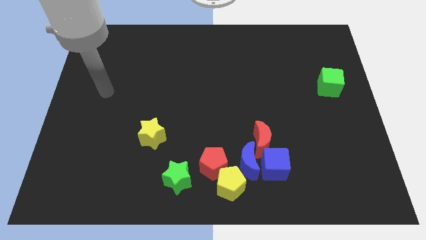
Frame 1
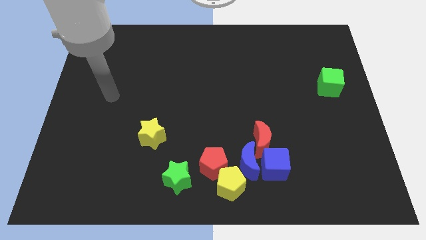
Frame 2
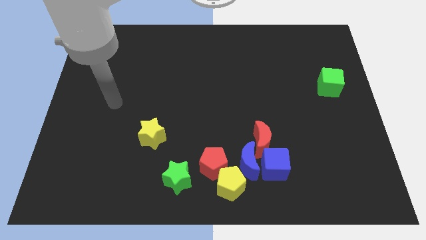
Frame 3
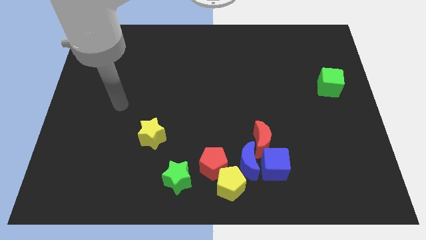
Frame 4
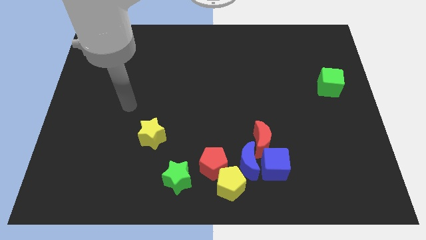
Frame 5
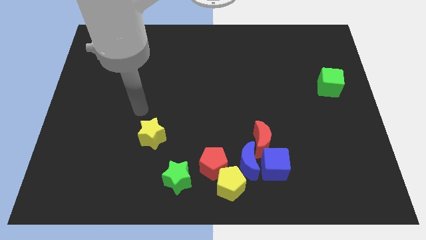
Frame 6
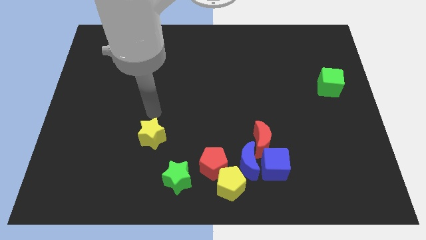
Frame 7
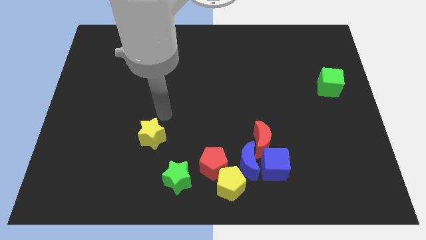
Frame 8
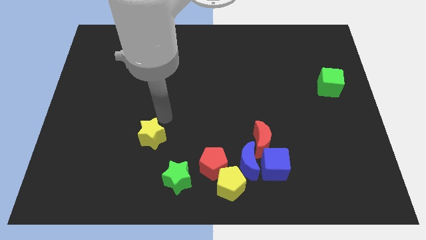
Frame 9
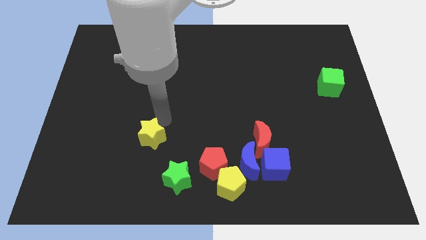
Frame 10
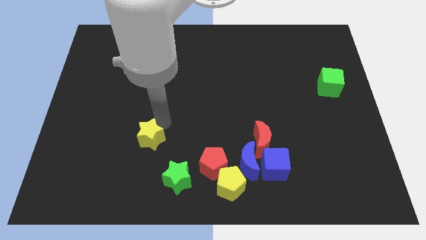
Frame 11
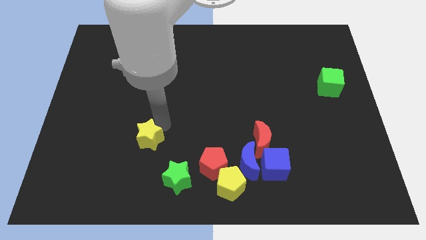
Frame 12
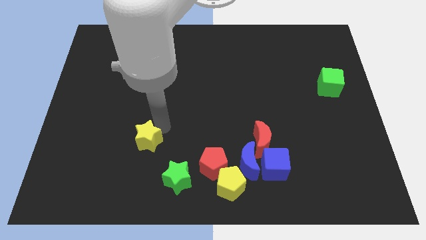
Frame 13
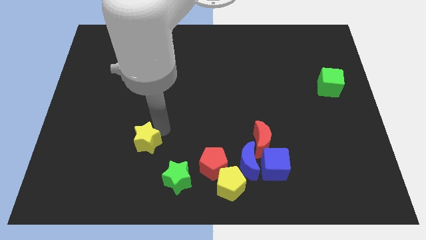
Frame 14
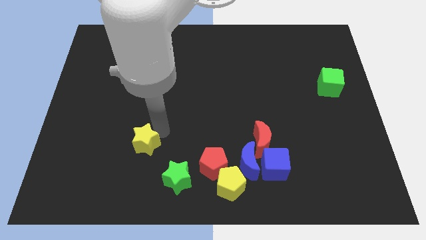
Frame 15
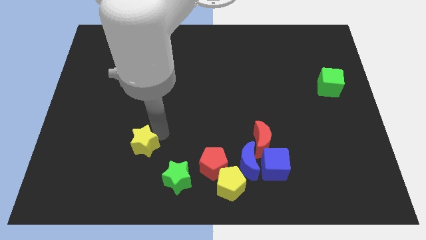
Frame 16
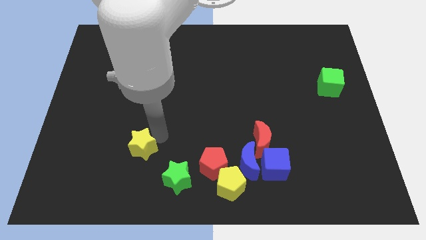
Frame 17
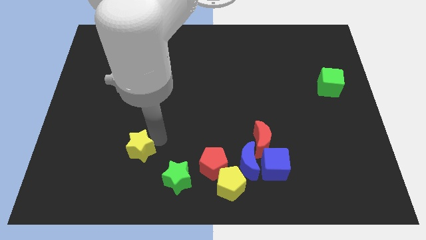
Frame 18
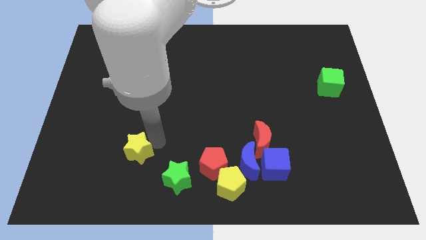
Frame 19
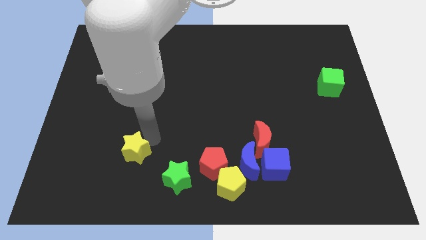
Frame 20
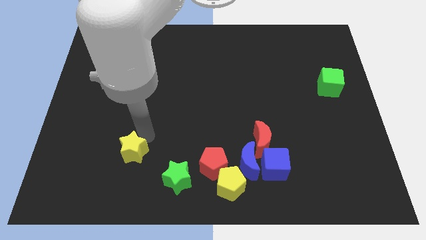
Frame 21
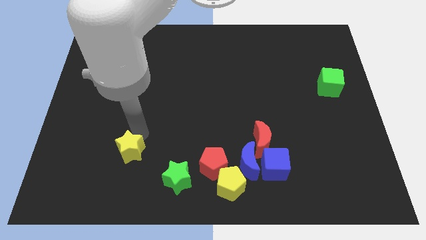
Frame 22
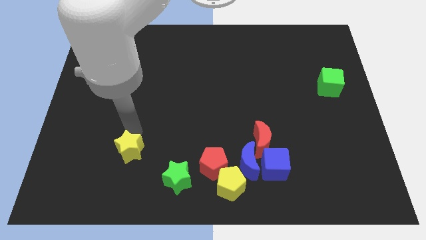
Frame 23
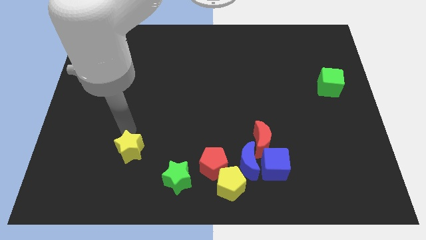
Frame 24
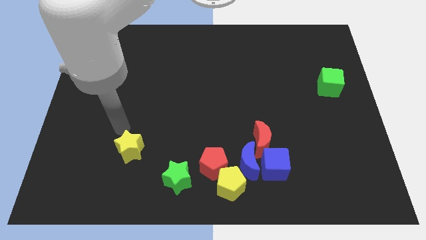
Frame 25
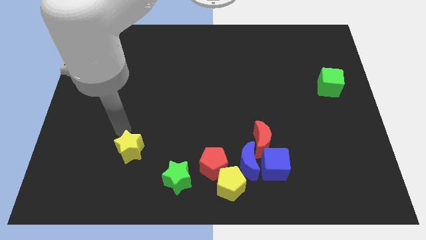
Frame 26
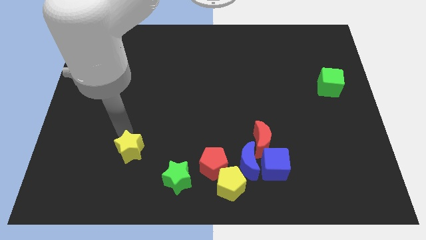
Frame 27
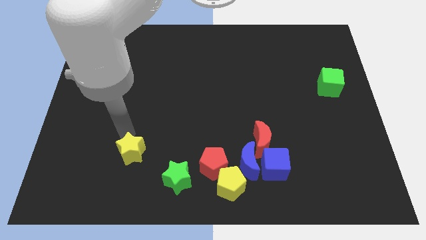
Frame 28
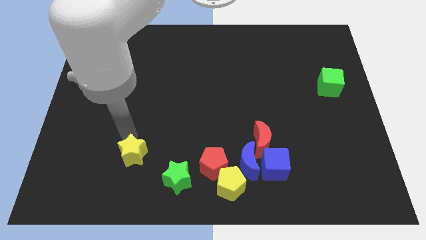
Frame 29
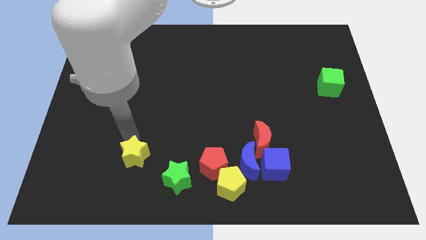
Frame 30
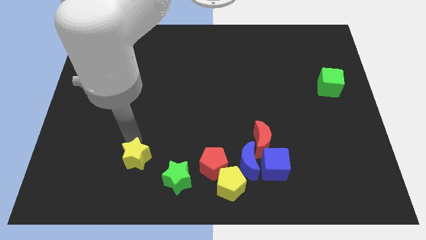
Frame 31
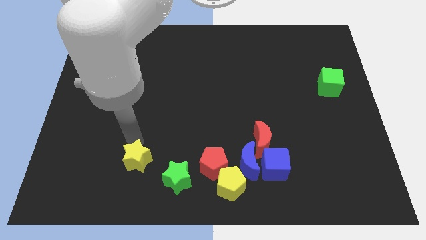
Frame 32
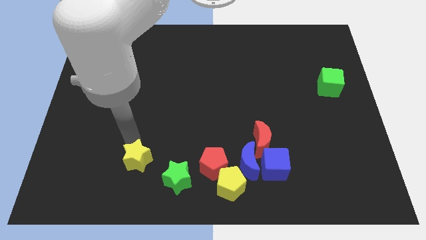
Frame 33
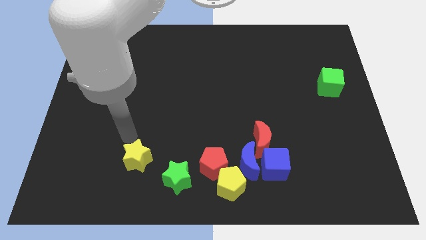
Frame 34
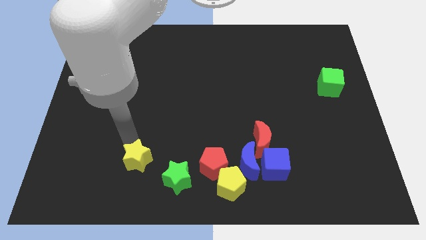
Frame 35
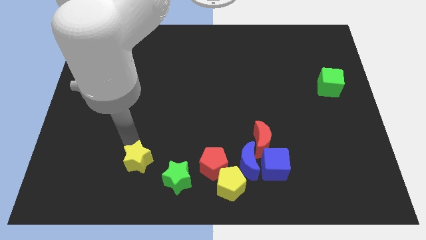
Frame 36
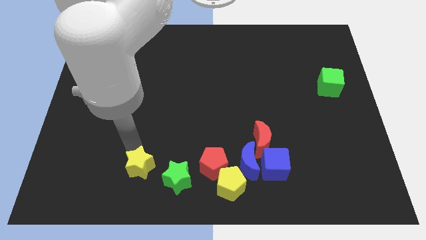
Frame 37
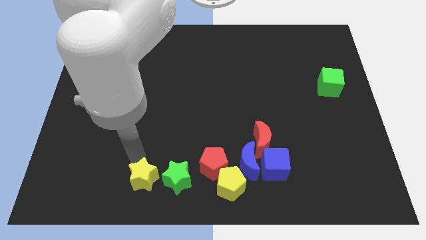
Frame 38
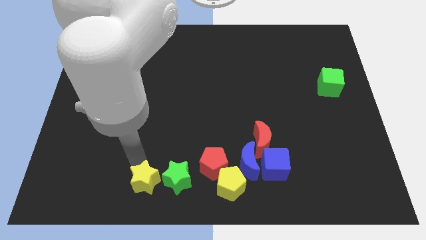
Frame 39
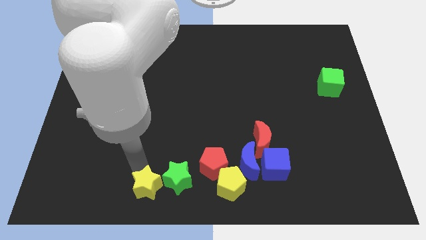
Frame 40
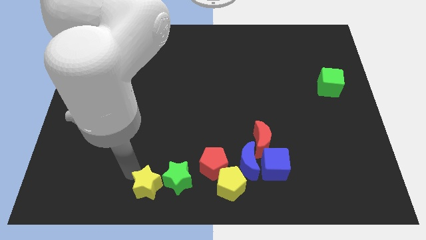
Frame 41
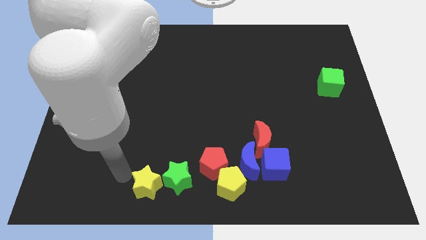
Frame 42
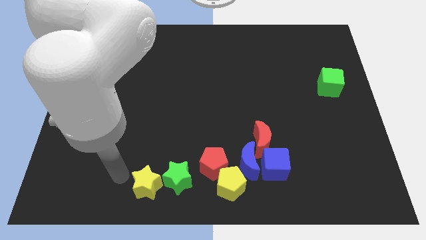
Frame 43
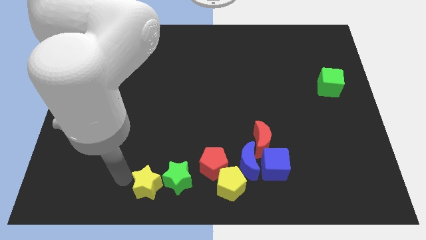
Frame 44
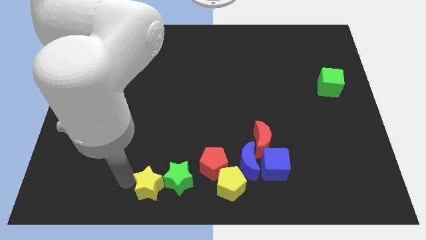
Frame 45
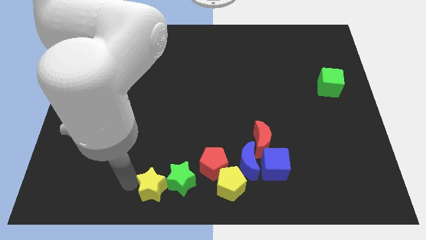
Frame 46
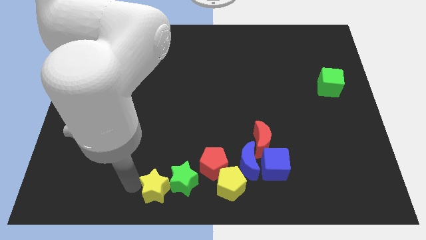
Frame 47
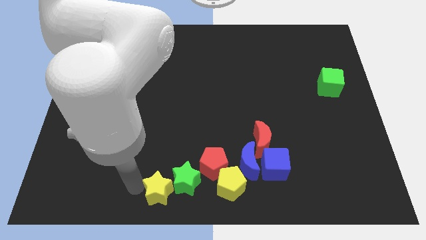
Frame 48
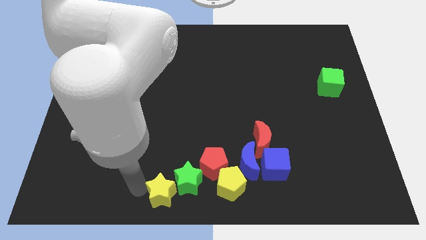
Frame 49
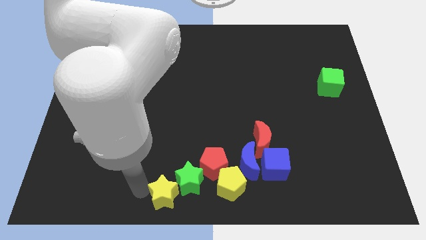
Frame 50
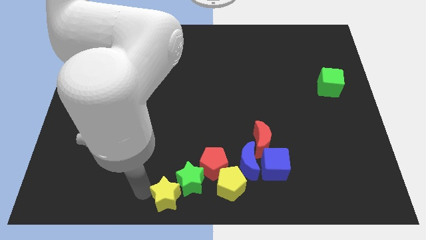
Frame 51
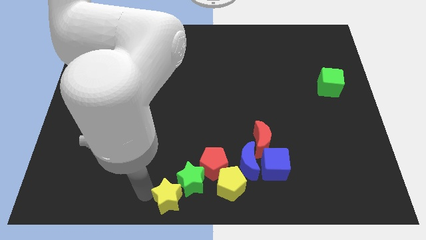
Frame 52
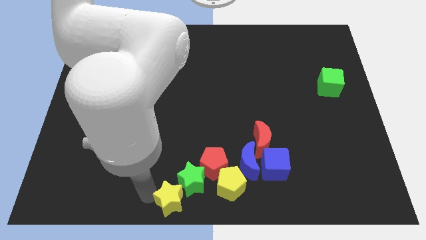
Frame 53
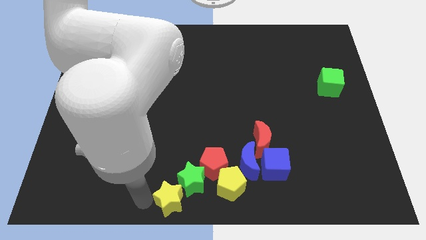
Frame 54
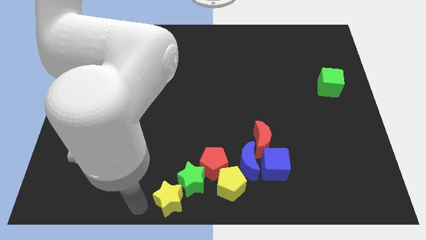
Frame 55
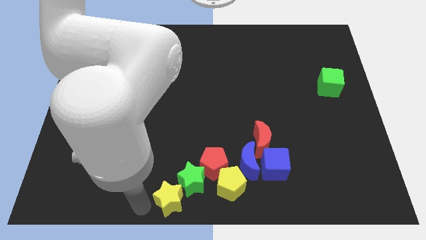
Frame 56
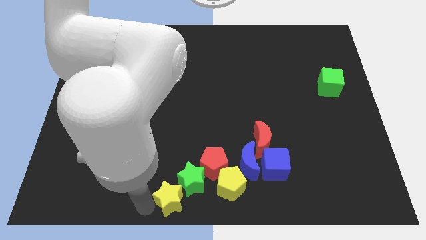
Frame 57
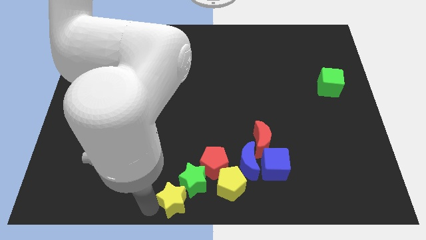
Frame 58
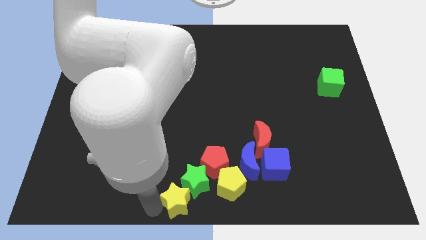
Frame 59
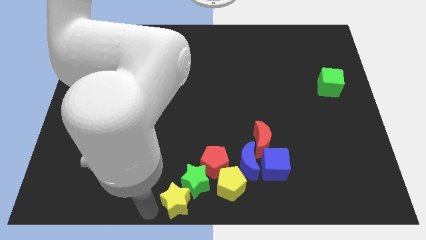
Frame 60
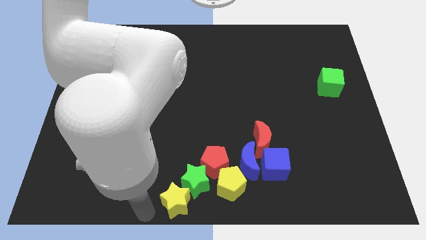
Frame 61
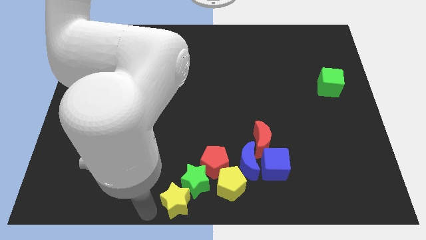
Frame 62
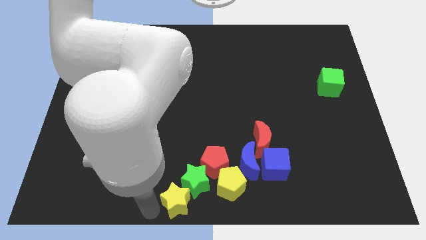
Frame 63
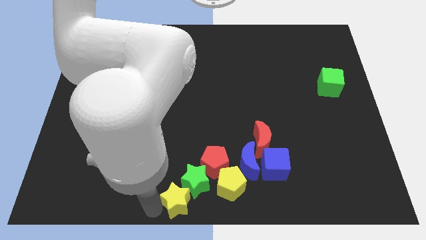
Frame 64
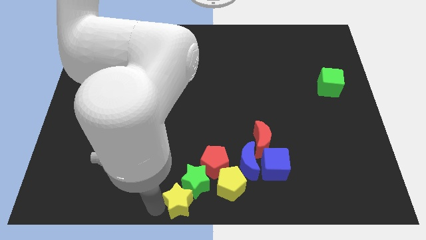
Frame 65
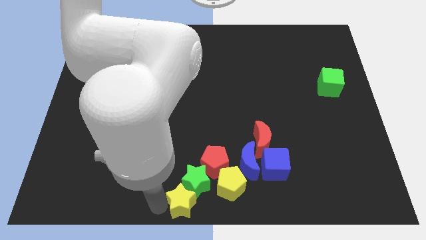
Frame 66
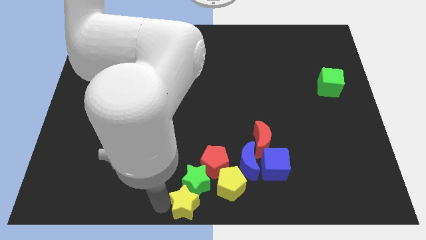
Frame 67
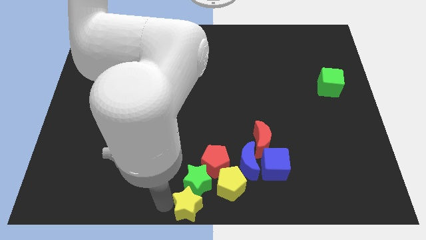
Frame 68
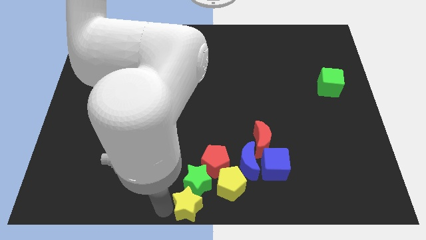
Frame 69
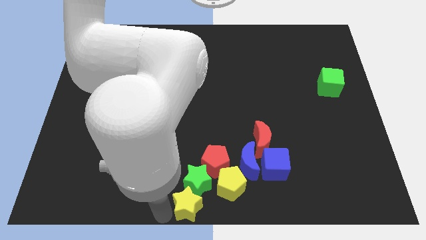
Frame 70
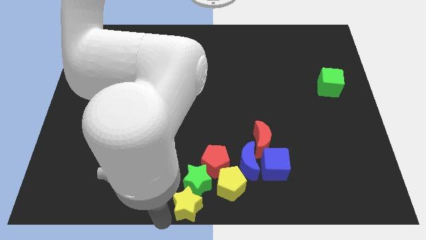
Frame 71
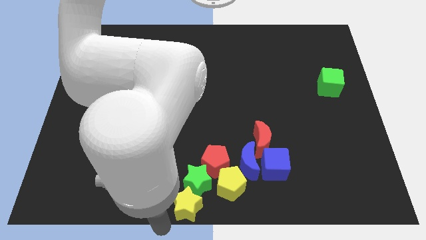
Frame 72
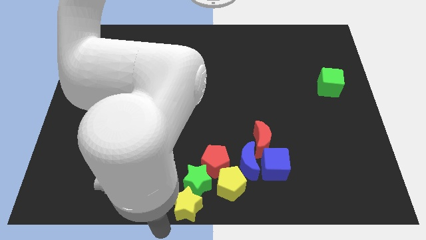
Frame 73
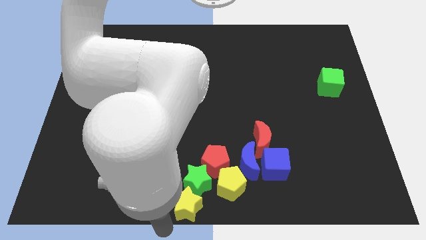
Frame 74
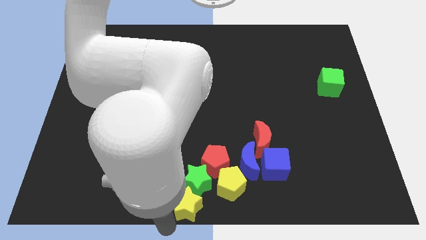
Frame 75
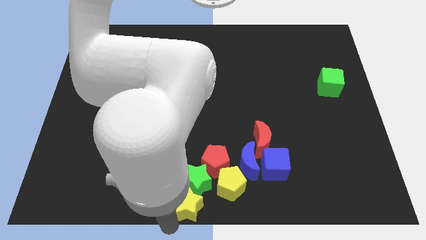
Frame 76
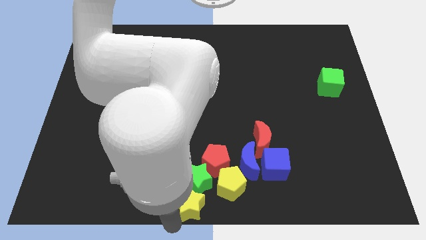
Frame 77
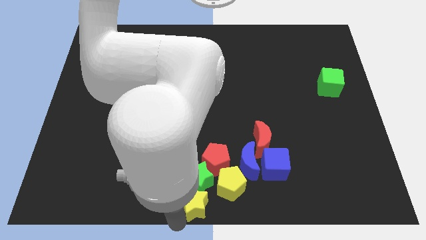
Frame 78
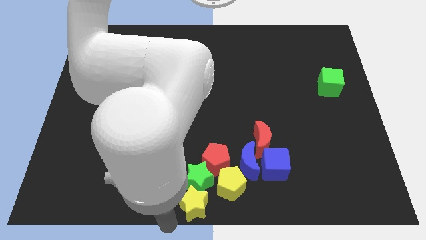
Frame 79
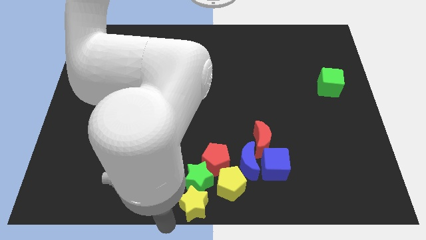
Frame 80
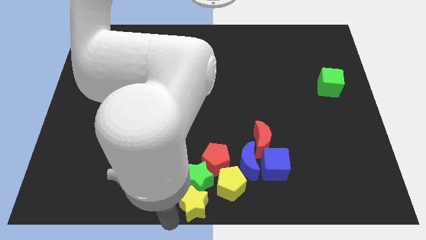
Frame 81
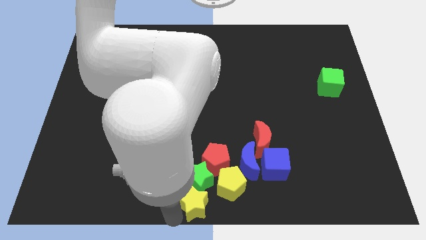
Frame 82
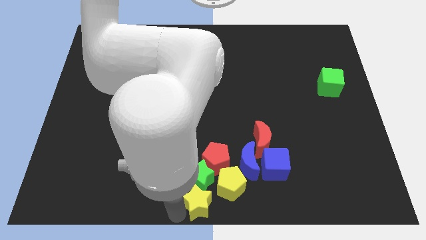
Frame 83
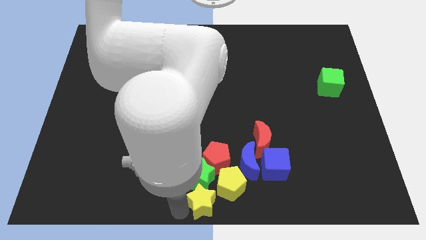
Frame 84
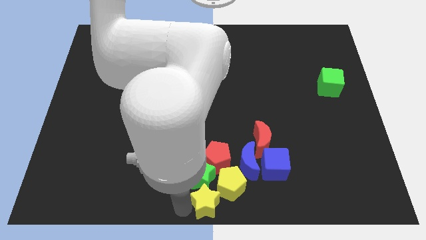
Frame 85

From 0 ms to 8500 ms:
push the yellow star close to the yellow pentagon
